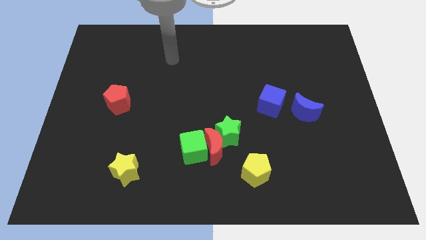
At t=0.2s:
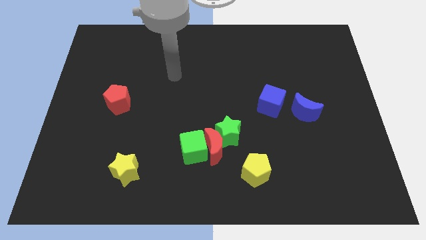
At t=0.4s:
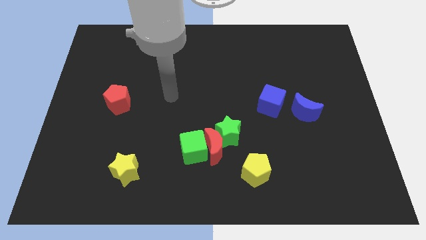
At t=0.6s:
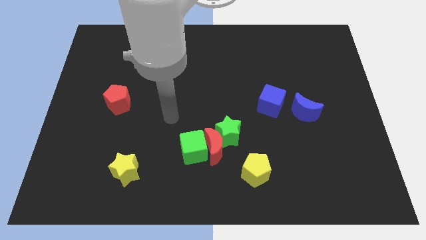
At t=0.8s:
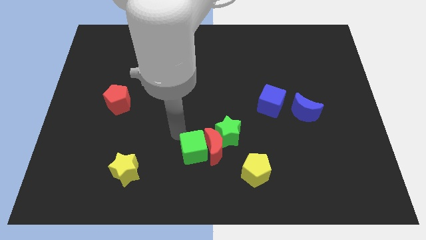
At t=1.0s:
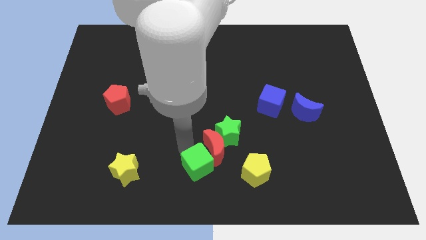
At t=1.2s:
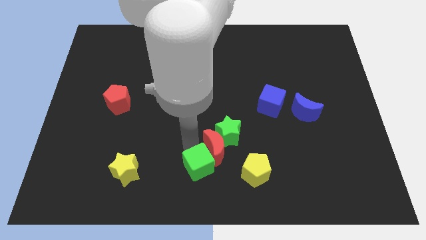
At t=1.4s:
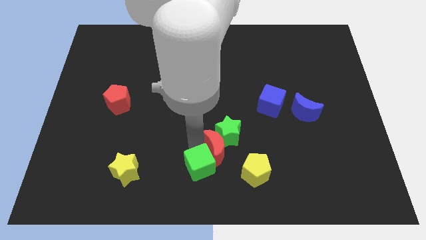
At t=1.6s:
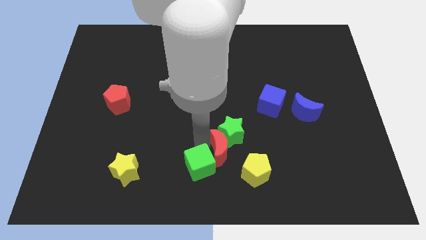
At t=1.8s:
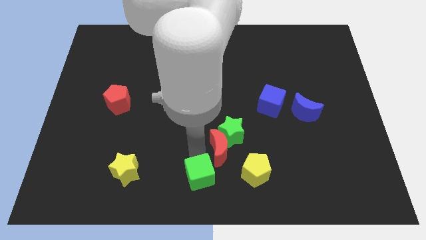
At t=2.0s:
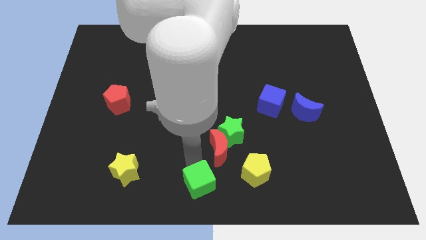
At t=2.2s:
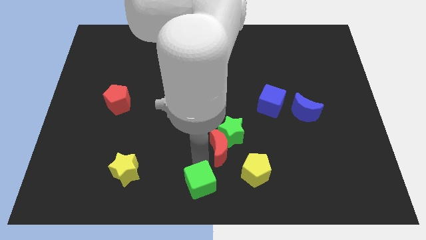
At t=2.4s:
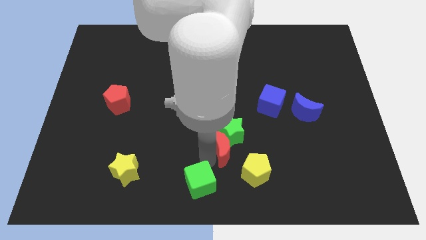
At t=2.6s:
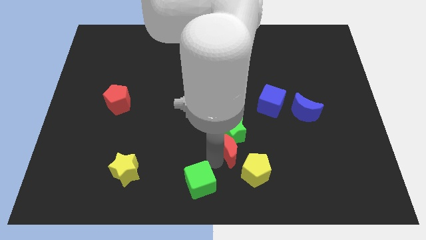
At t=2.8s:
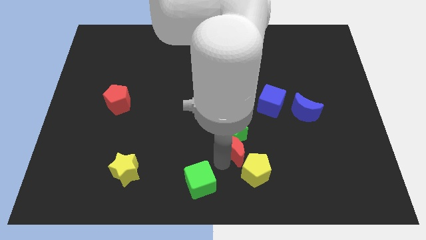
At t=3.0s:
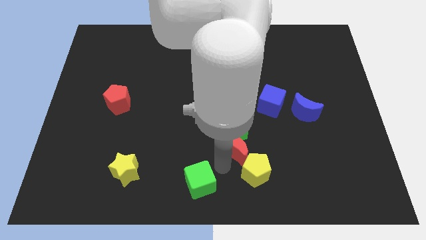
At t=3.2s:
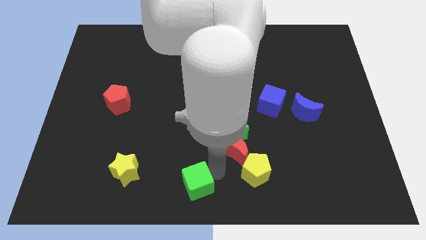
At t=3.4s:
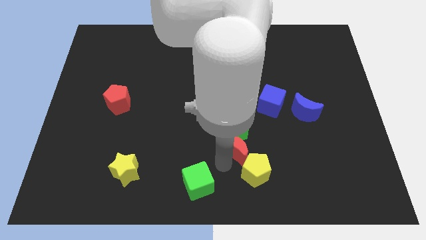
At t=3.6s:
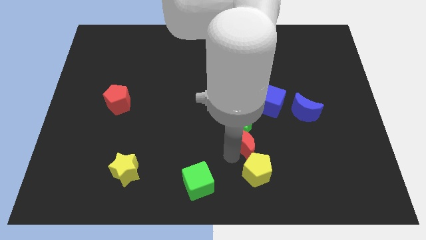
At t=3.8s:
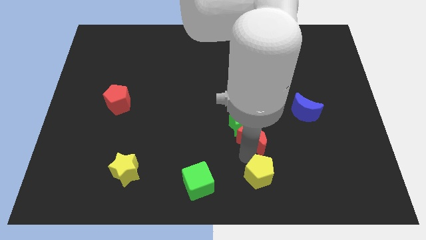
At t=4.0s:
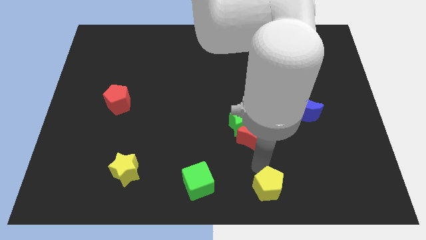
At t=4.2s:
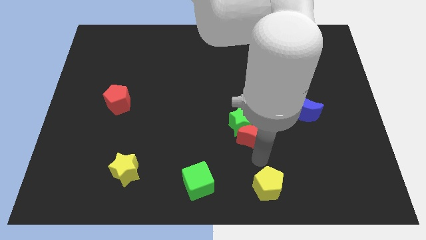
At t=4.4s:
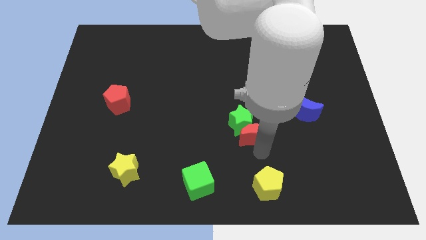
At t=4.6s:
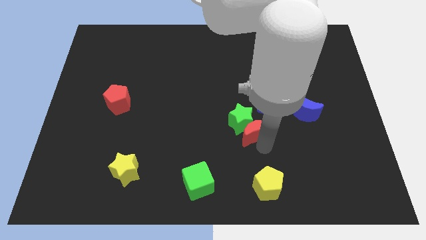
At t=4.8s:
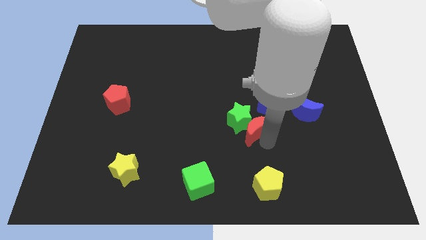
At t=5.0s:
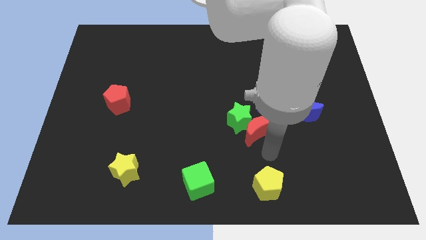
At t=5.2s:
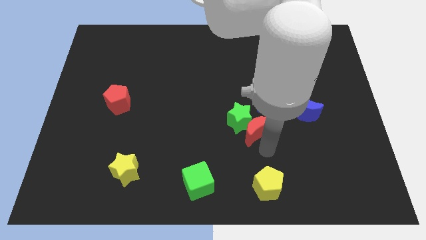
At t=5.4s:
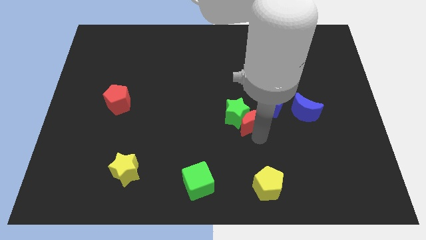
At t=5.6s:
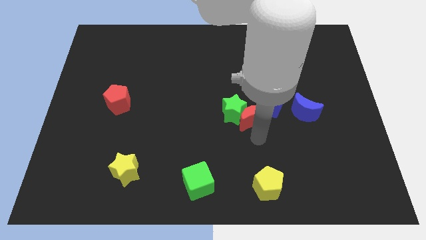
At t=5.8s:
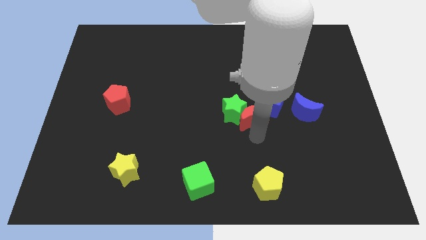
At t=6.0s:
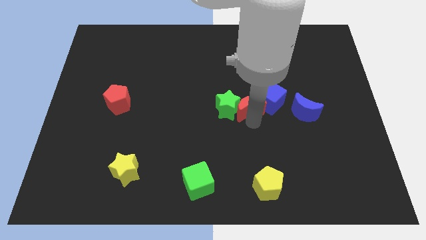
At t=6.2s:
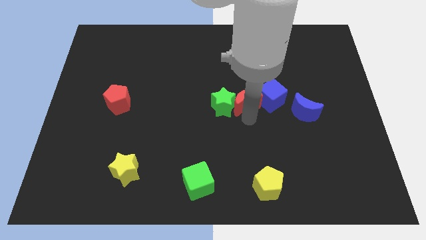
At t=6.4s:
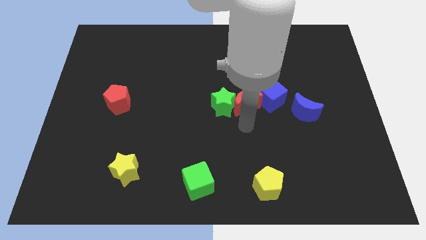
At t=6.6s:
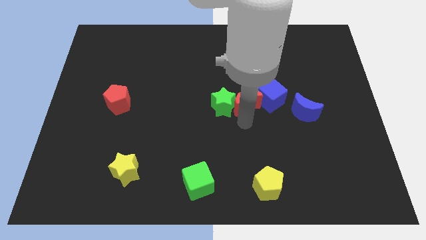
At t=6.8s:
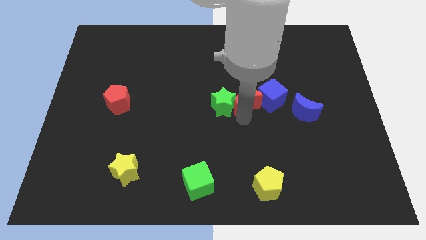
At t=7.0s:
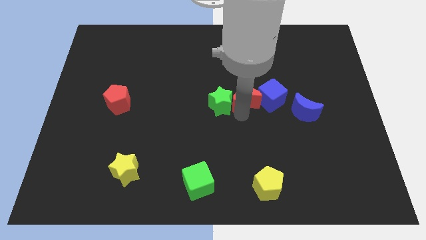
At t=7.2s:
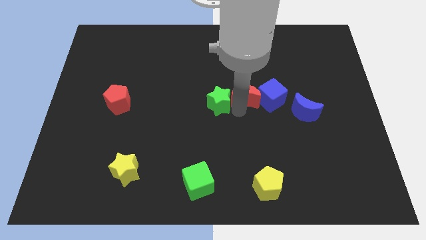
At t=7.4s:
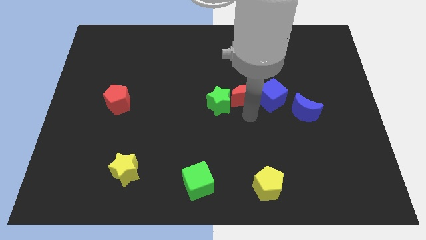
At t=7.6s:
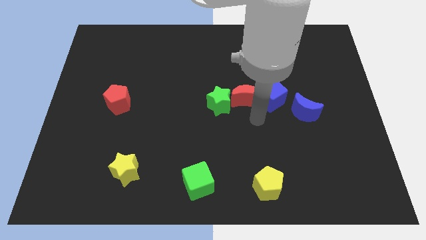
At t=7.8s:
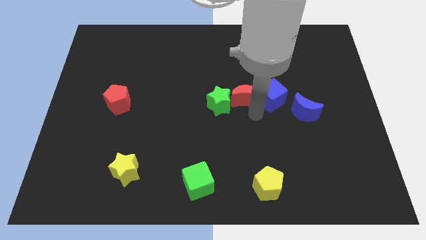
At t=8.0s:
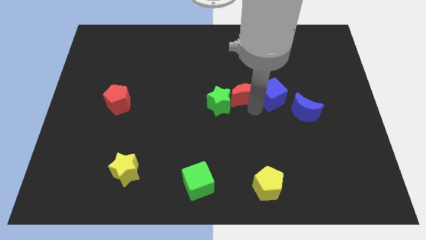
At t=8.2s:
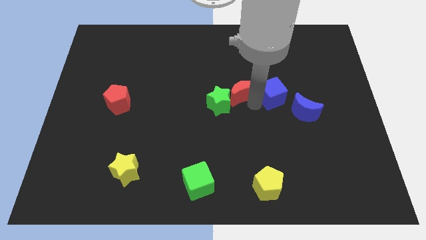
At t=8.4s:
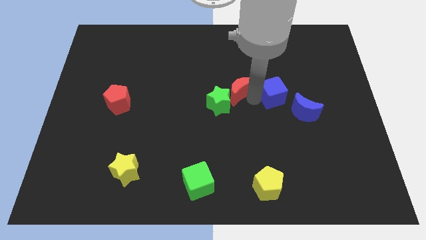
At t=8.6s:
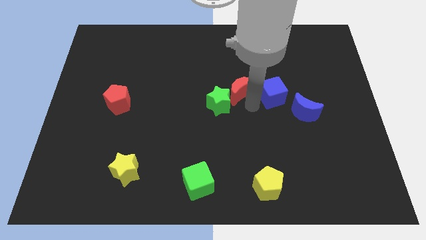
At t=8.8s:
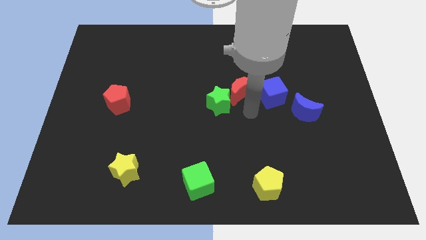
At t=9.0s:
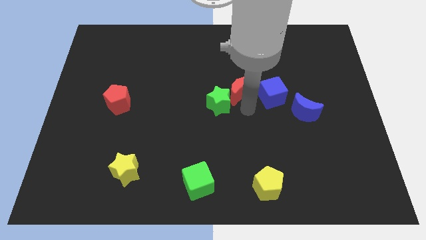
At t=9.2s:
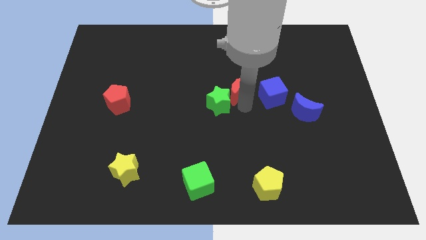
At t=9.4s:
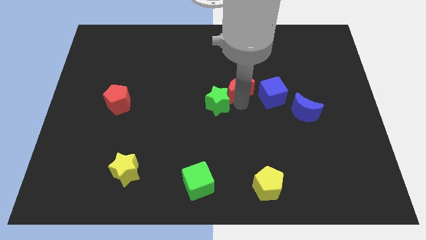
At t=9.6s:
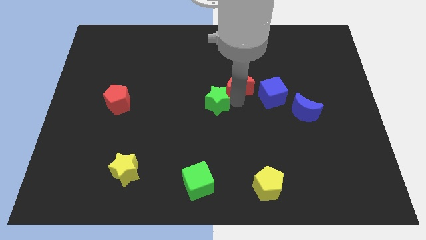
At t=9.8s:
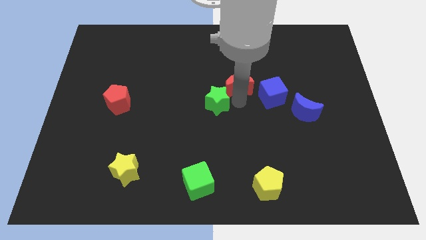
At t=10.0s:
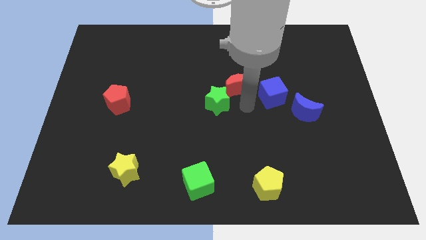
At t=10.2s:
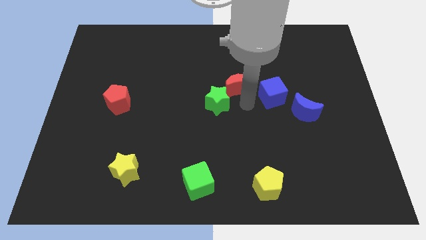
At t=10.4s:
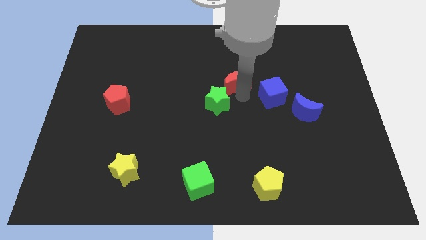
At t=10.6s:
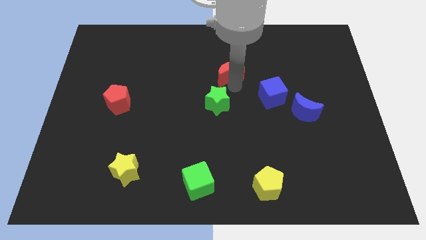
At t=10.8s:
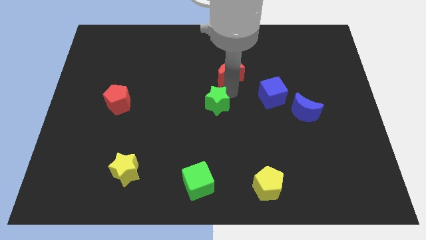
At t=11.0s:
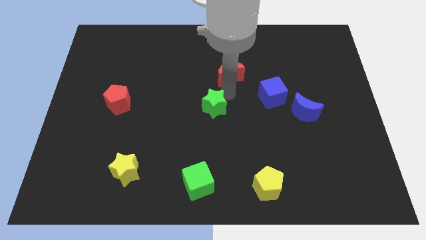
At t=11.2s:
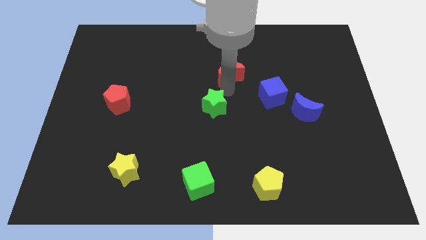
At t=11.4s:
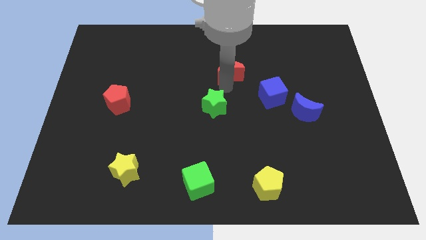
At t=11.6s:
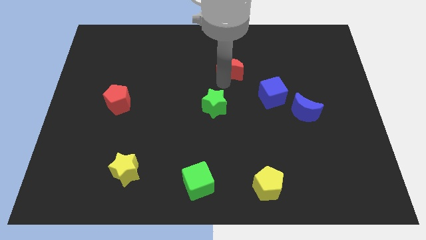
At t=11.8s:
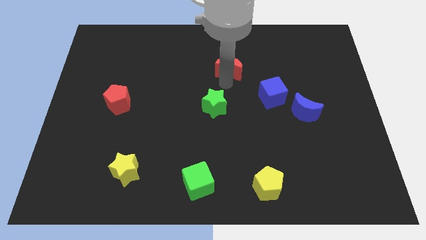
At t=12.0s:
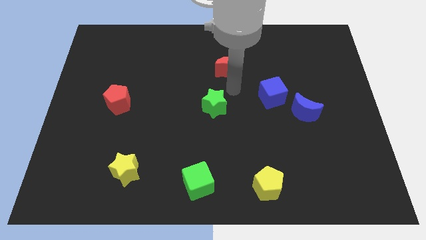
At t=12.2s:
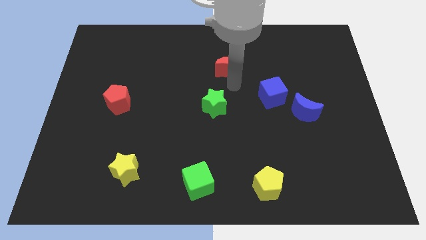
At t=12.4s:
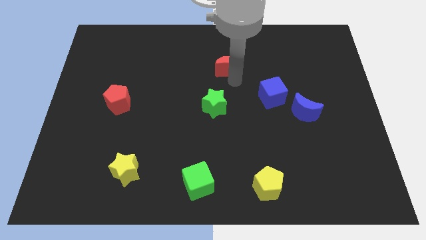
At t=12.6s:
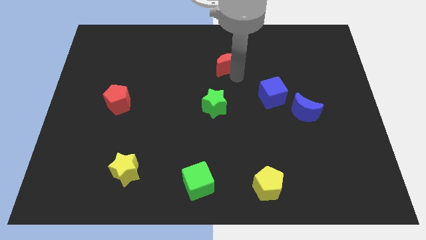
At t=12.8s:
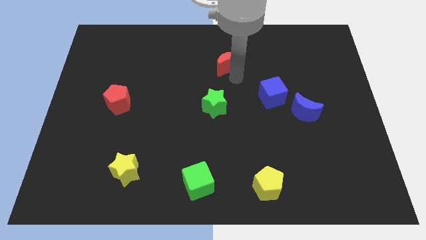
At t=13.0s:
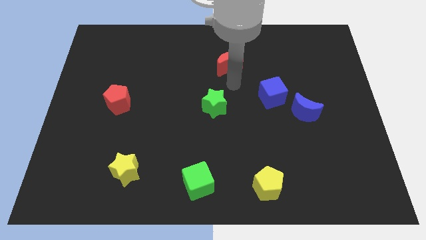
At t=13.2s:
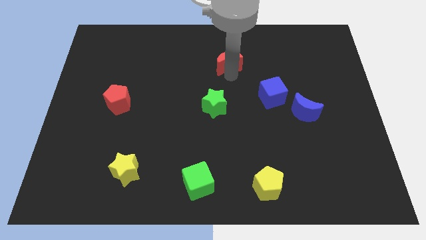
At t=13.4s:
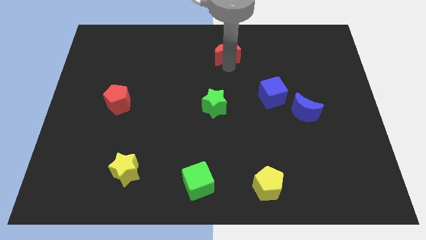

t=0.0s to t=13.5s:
move the red moon to the towards your base
